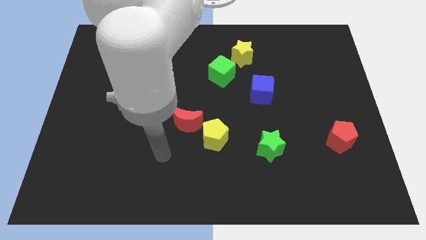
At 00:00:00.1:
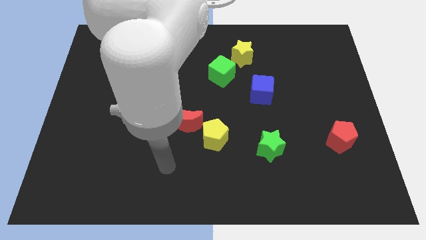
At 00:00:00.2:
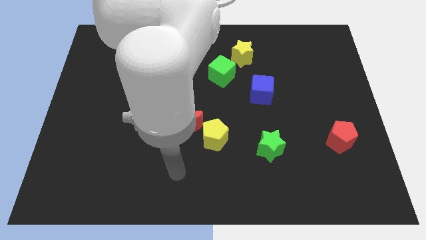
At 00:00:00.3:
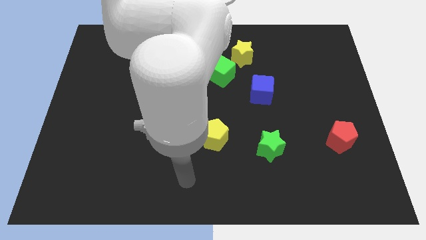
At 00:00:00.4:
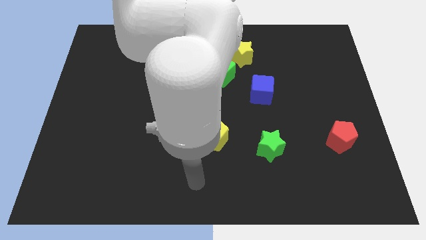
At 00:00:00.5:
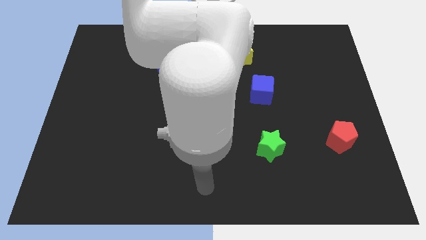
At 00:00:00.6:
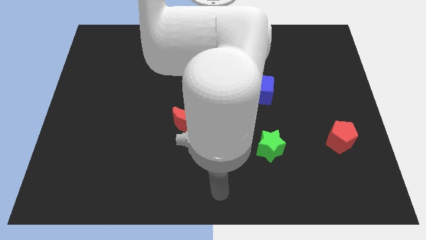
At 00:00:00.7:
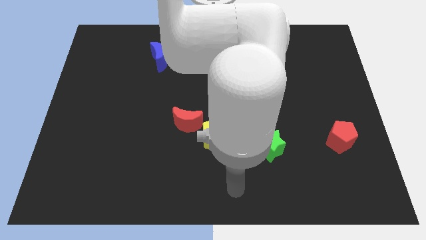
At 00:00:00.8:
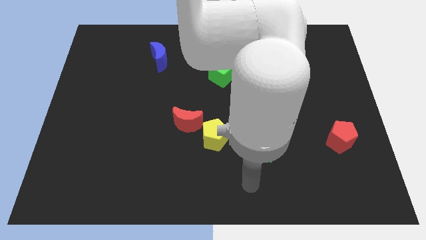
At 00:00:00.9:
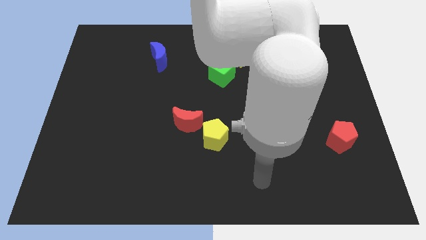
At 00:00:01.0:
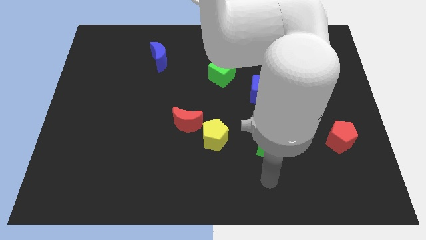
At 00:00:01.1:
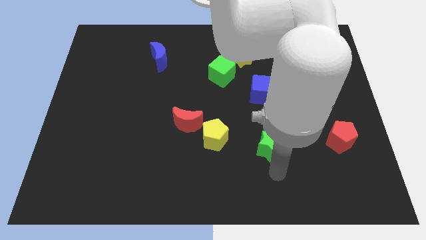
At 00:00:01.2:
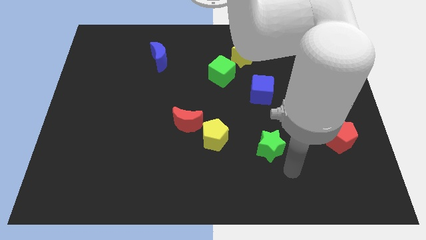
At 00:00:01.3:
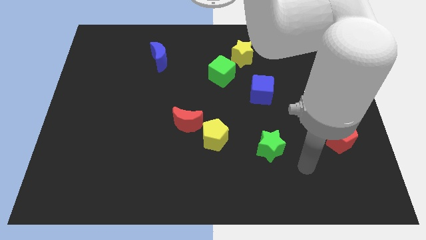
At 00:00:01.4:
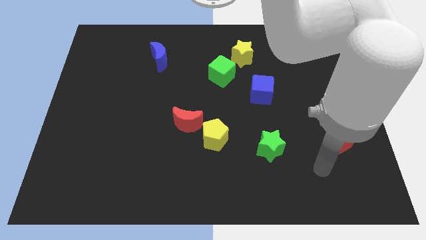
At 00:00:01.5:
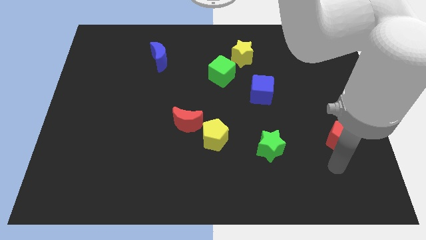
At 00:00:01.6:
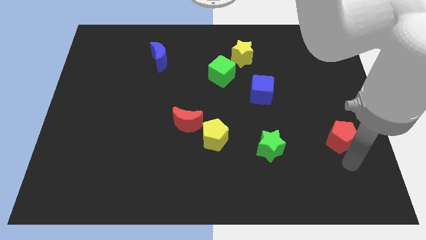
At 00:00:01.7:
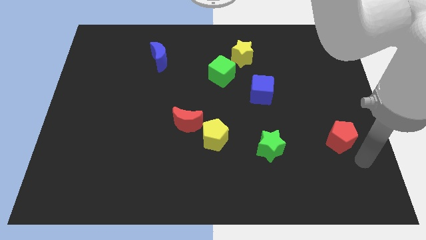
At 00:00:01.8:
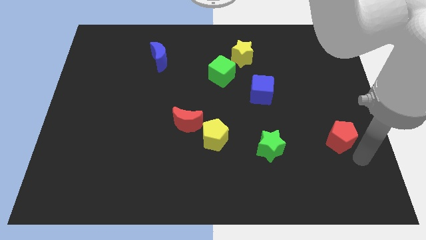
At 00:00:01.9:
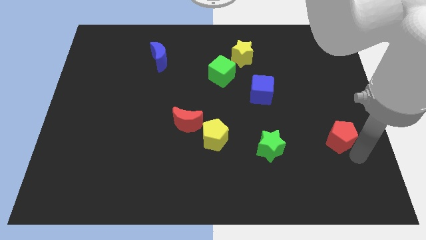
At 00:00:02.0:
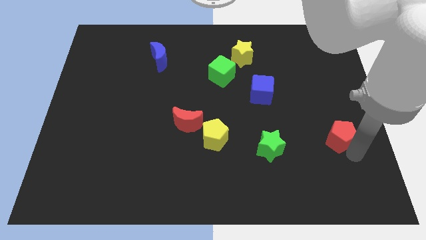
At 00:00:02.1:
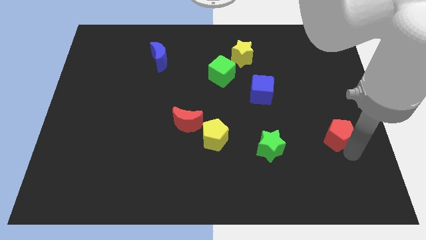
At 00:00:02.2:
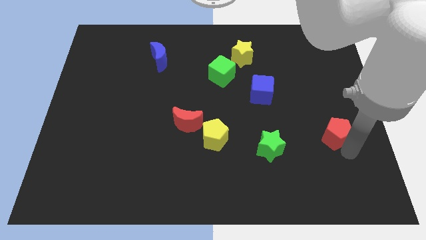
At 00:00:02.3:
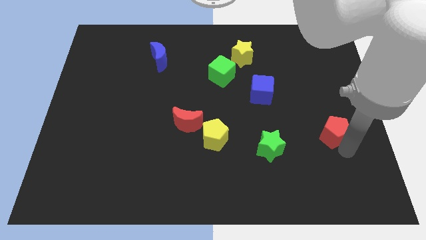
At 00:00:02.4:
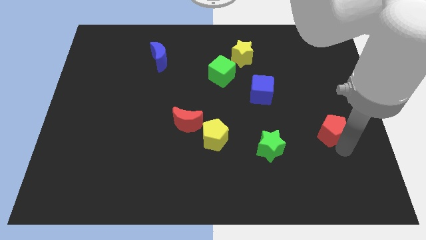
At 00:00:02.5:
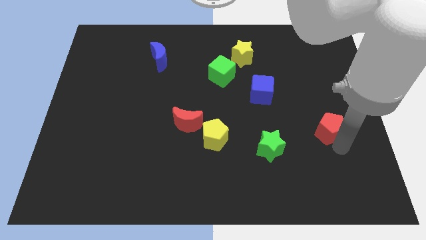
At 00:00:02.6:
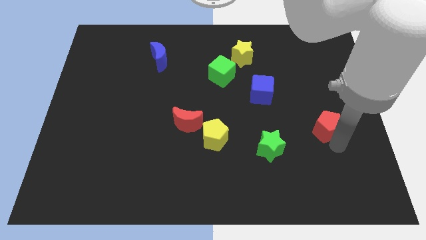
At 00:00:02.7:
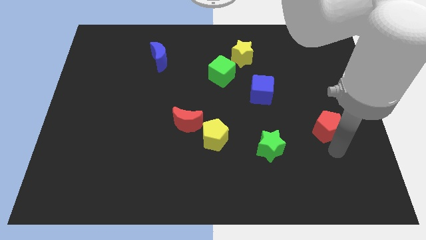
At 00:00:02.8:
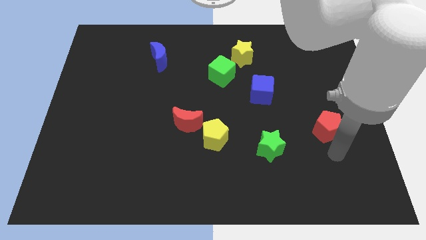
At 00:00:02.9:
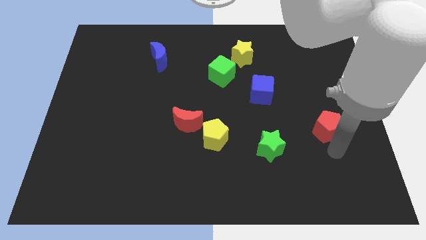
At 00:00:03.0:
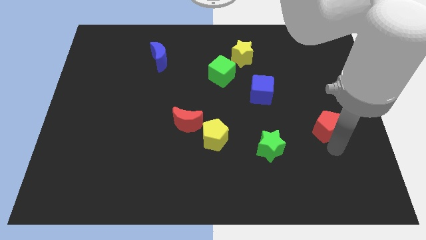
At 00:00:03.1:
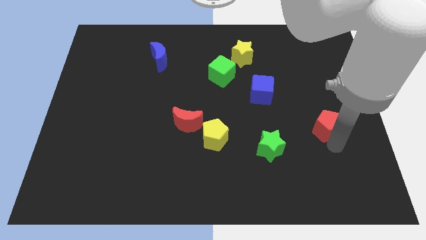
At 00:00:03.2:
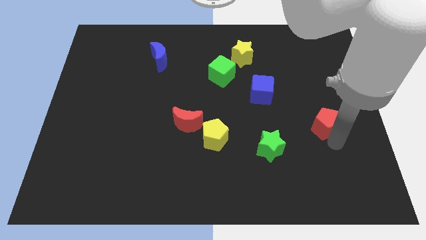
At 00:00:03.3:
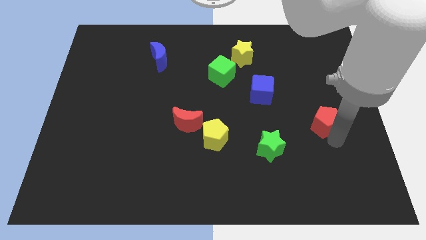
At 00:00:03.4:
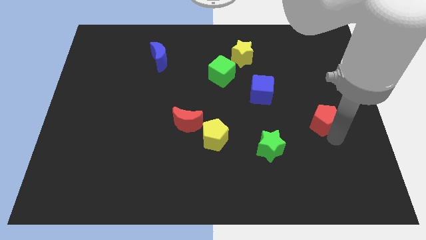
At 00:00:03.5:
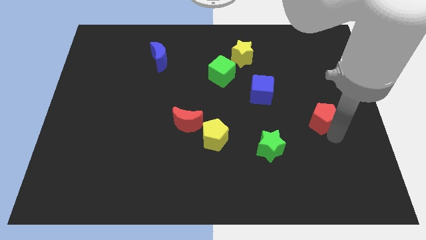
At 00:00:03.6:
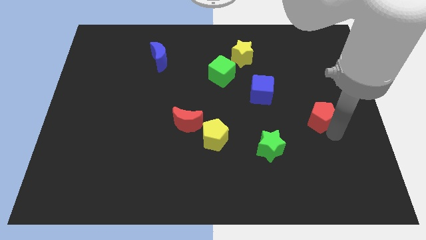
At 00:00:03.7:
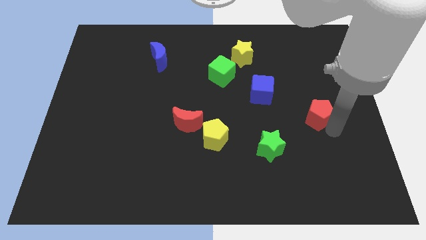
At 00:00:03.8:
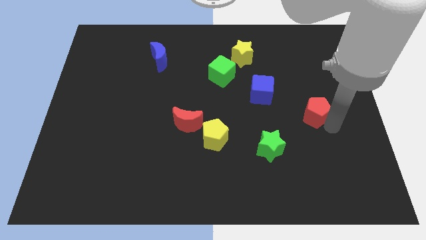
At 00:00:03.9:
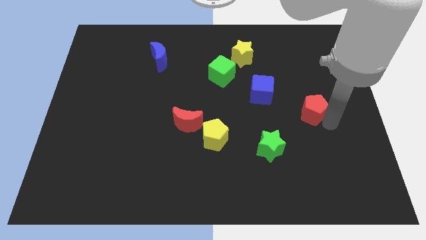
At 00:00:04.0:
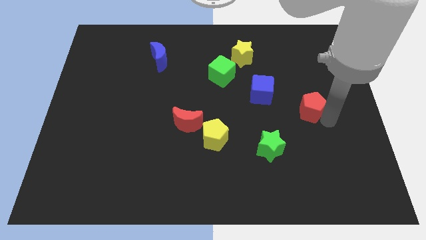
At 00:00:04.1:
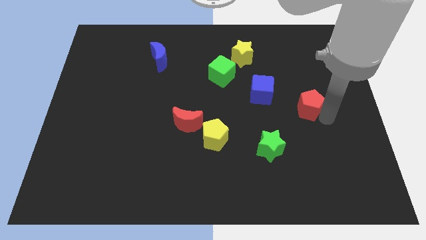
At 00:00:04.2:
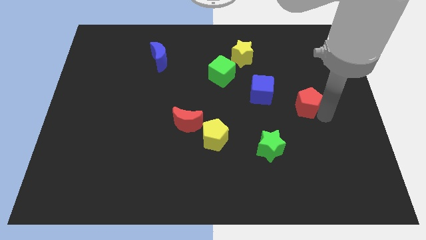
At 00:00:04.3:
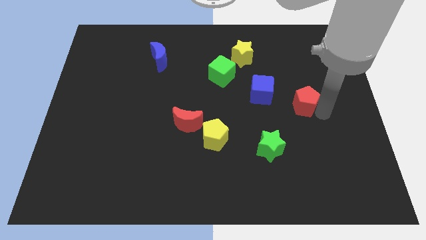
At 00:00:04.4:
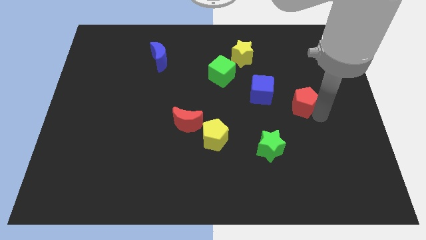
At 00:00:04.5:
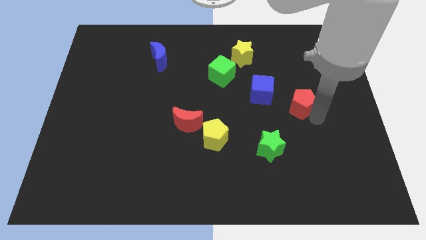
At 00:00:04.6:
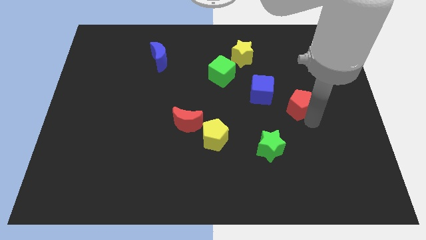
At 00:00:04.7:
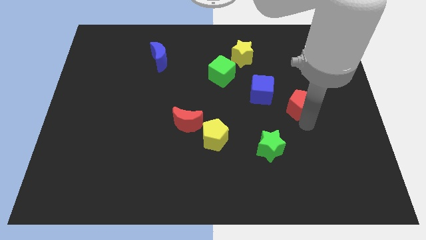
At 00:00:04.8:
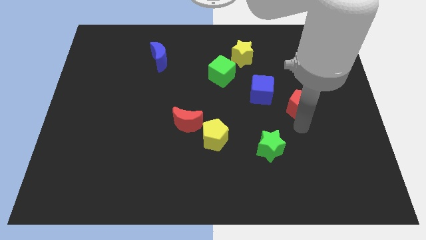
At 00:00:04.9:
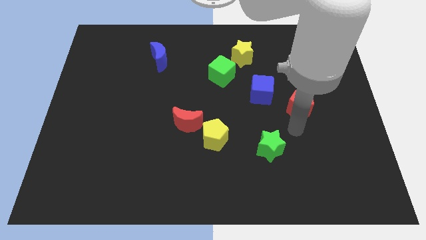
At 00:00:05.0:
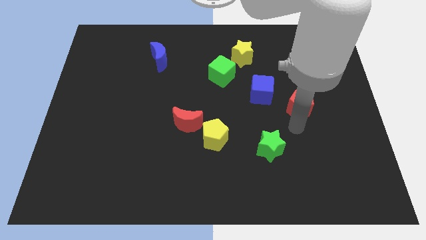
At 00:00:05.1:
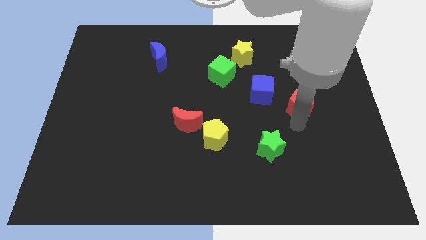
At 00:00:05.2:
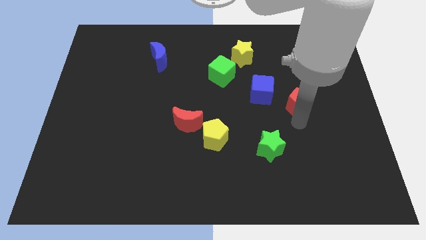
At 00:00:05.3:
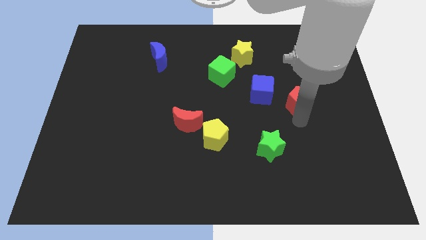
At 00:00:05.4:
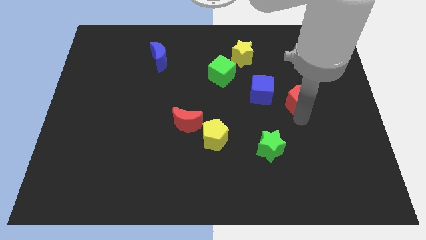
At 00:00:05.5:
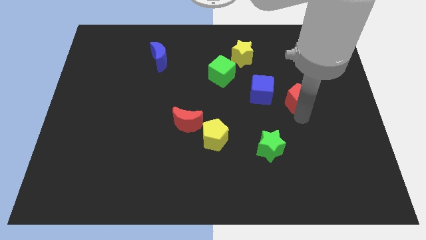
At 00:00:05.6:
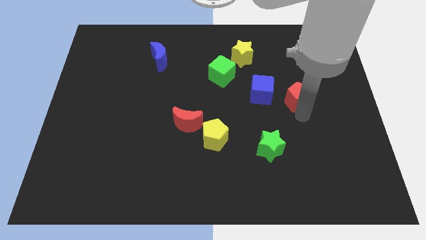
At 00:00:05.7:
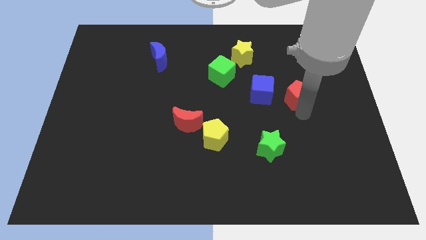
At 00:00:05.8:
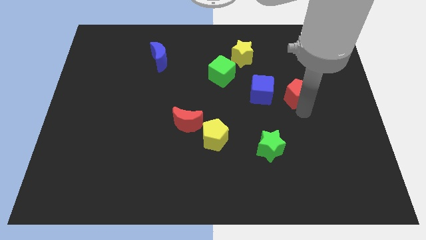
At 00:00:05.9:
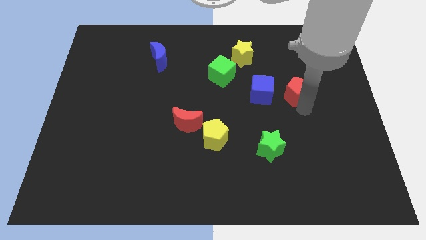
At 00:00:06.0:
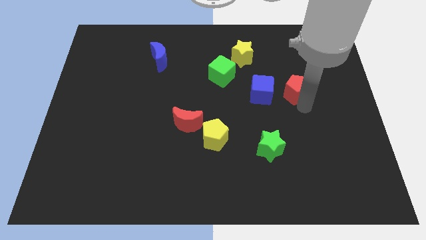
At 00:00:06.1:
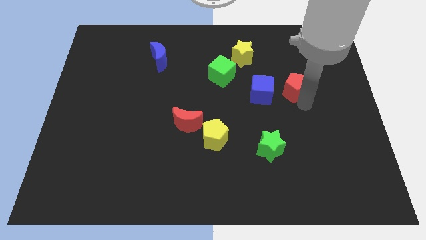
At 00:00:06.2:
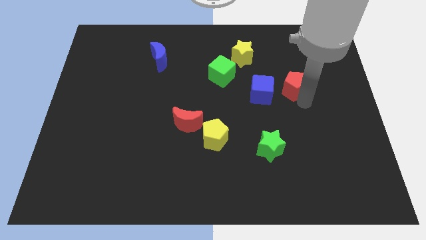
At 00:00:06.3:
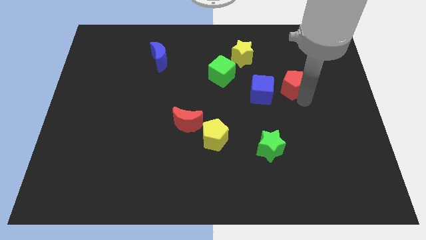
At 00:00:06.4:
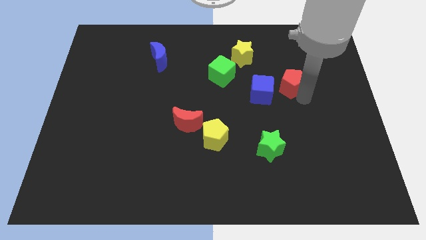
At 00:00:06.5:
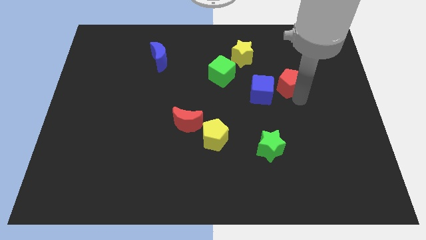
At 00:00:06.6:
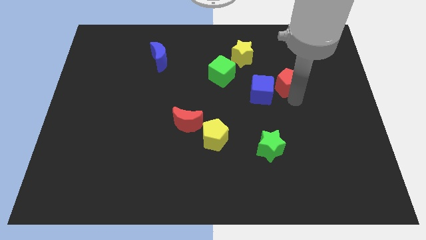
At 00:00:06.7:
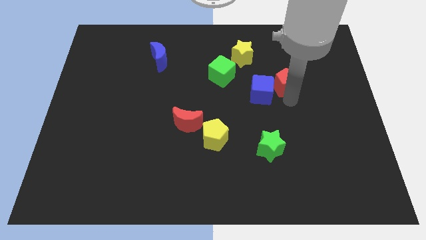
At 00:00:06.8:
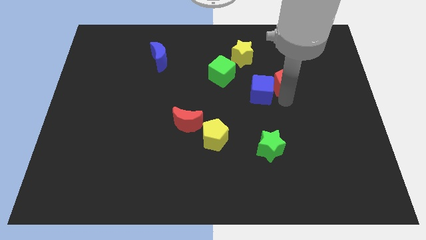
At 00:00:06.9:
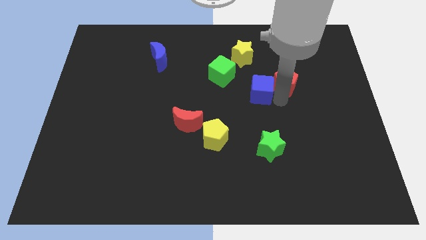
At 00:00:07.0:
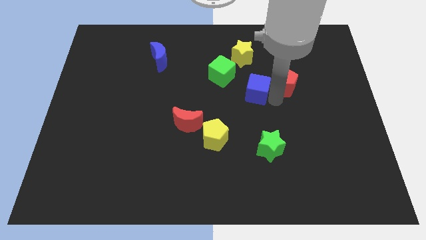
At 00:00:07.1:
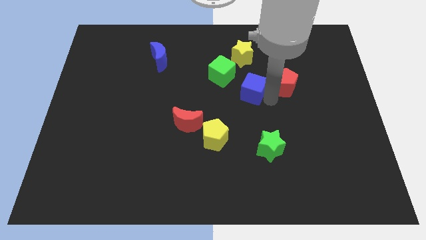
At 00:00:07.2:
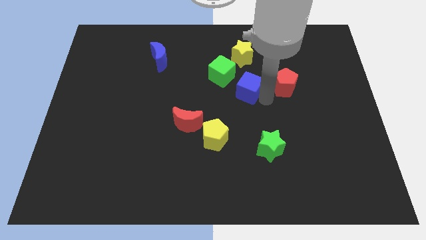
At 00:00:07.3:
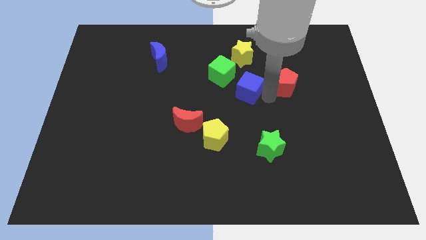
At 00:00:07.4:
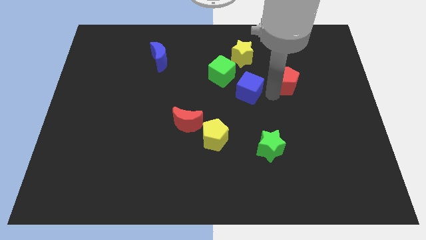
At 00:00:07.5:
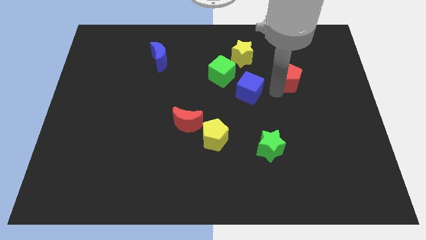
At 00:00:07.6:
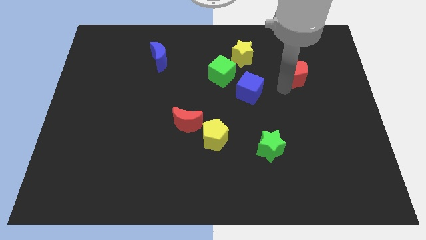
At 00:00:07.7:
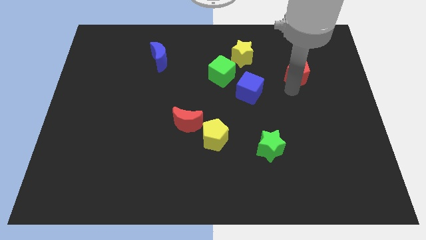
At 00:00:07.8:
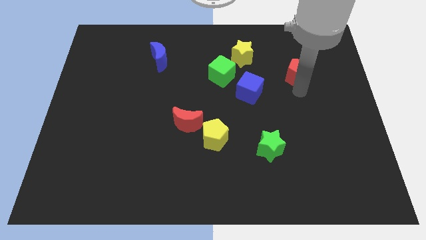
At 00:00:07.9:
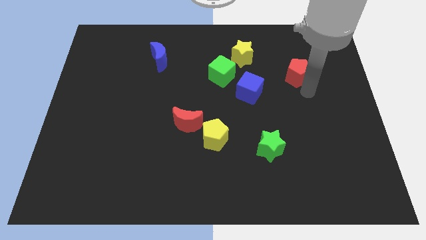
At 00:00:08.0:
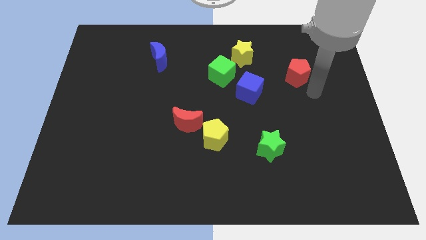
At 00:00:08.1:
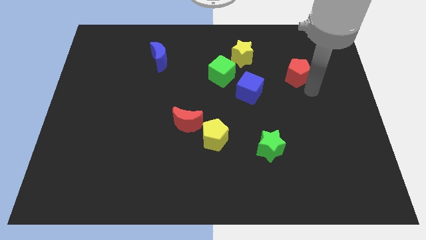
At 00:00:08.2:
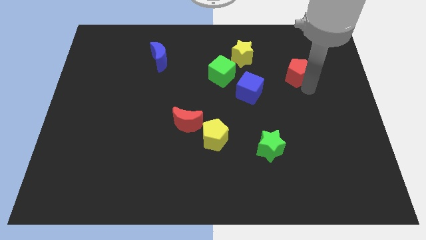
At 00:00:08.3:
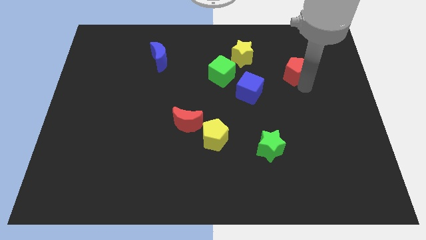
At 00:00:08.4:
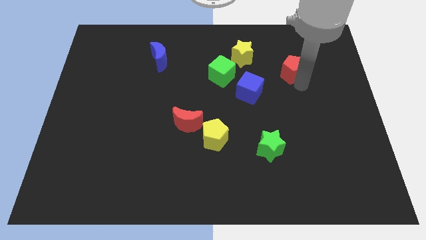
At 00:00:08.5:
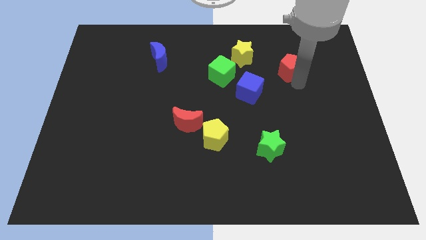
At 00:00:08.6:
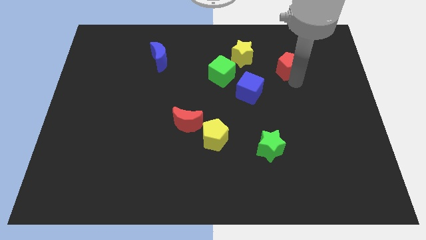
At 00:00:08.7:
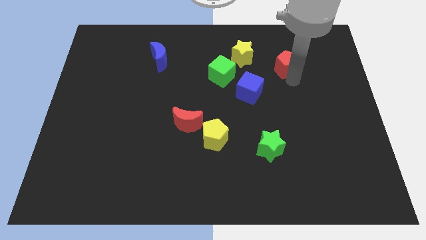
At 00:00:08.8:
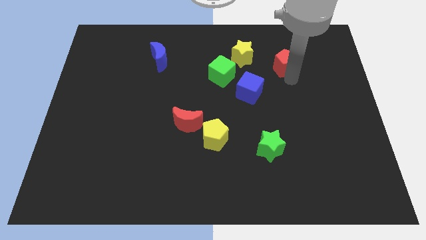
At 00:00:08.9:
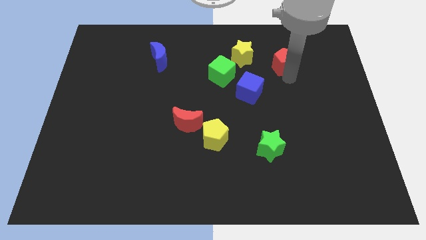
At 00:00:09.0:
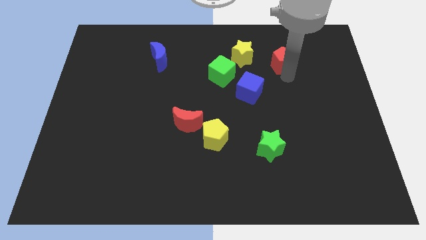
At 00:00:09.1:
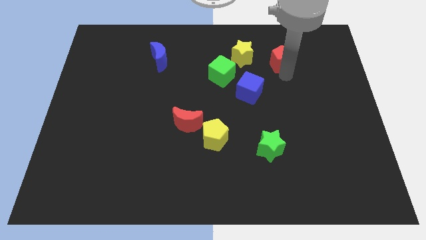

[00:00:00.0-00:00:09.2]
push the red pentagon upwards and to the left
